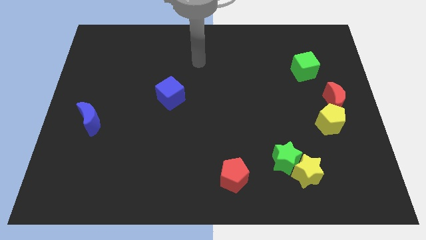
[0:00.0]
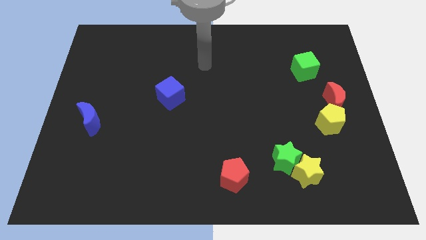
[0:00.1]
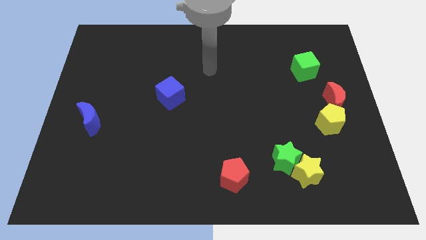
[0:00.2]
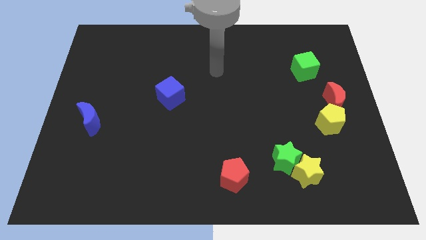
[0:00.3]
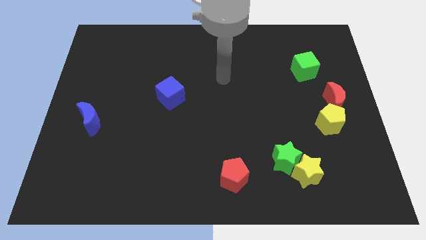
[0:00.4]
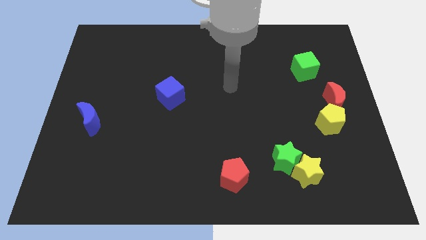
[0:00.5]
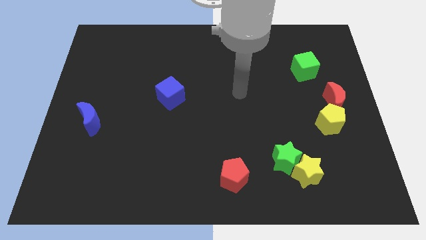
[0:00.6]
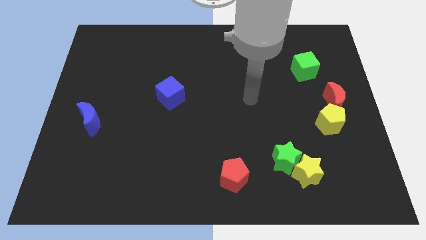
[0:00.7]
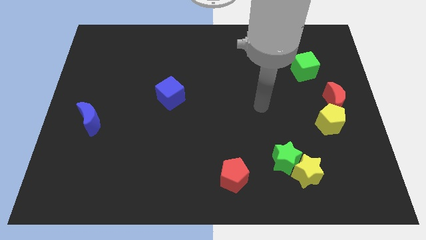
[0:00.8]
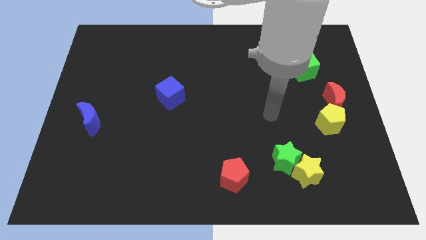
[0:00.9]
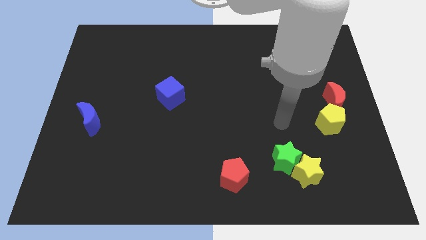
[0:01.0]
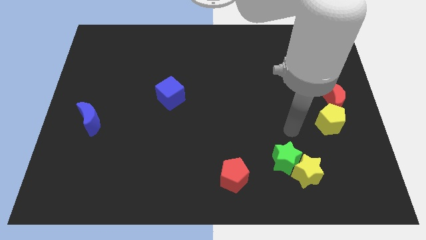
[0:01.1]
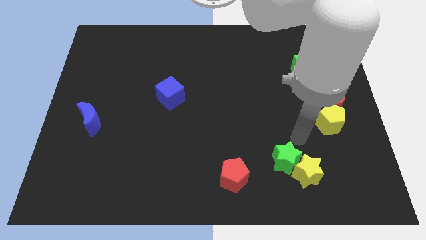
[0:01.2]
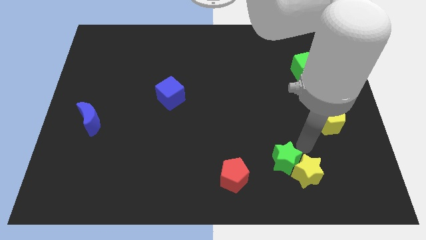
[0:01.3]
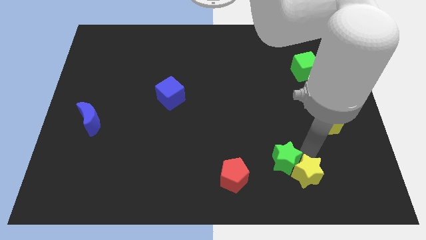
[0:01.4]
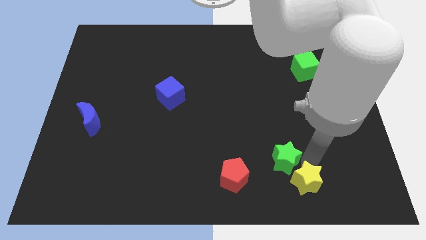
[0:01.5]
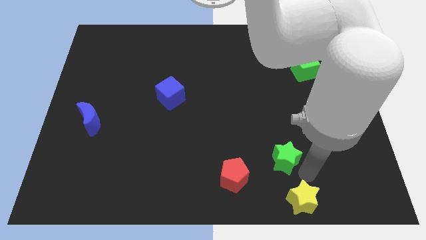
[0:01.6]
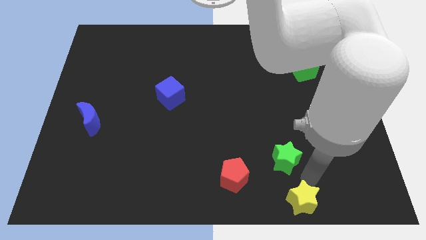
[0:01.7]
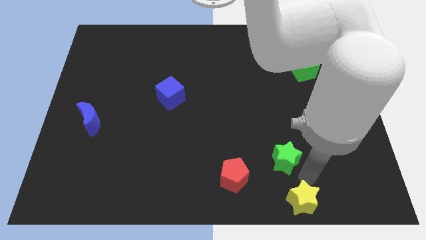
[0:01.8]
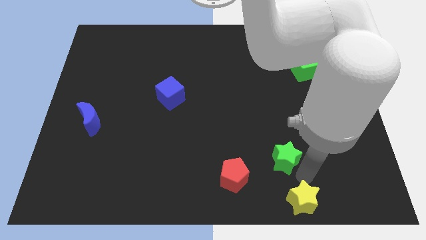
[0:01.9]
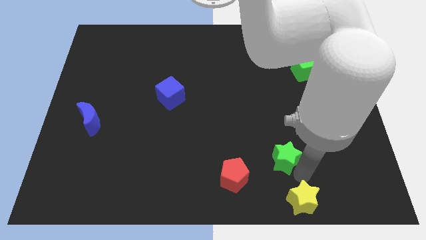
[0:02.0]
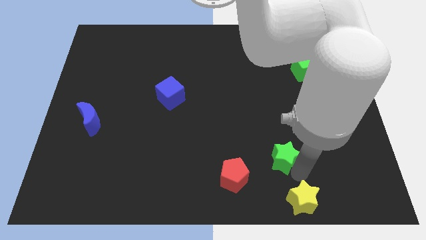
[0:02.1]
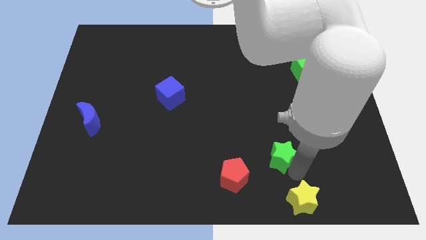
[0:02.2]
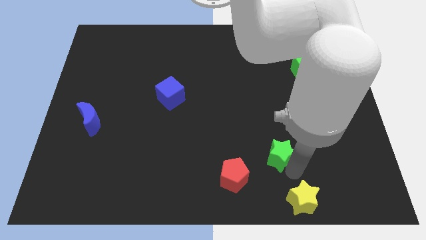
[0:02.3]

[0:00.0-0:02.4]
separate the green star from the yellow star

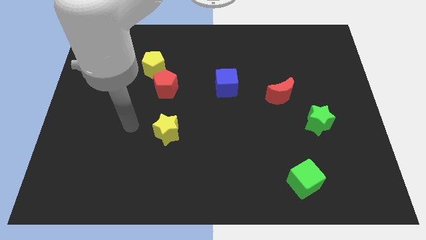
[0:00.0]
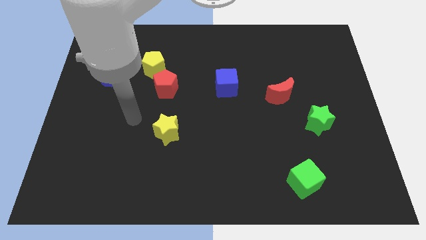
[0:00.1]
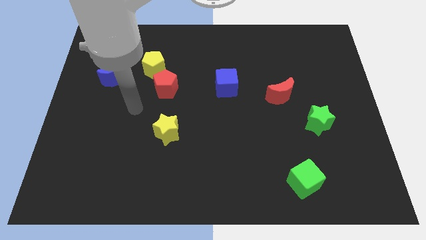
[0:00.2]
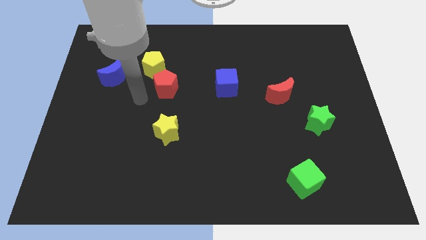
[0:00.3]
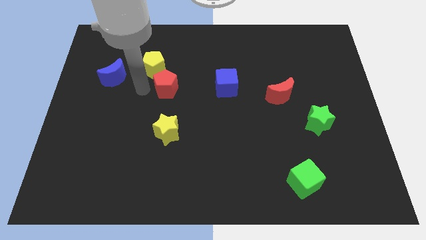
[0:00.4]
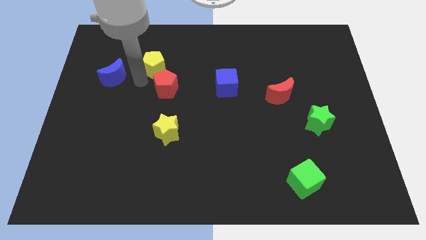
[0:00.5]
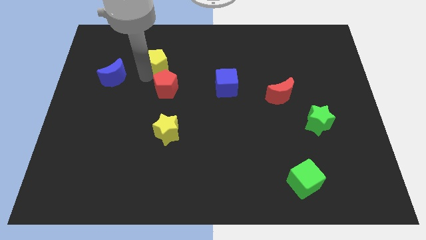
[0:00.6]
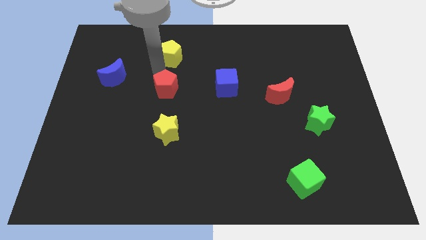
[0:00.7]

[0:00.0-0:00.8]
move the red pentagon away from the yellow pentagon

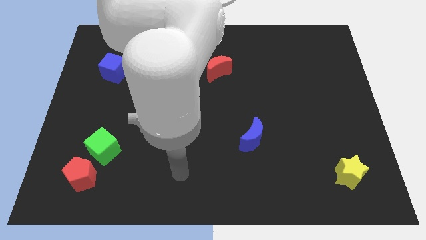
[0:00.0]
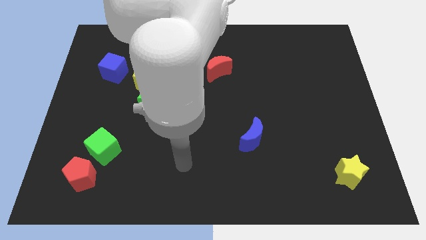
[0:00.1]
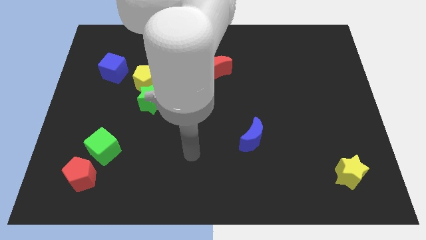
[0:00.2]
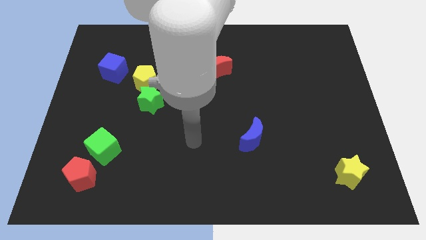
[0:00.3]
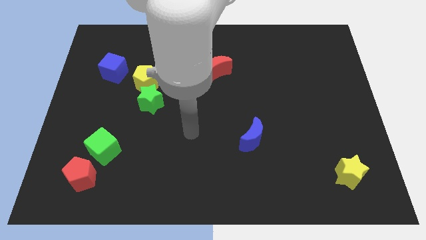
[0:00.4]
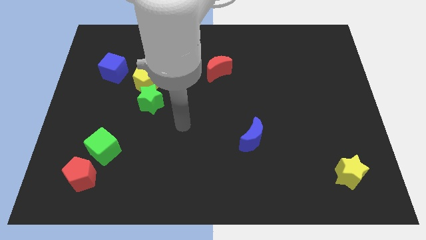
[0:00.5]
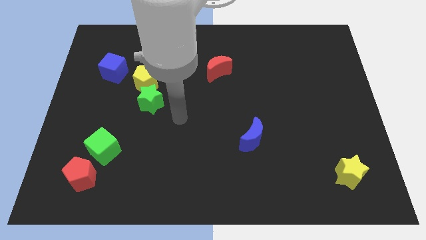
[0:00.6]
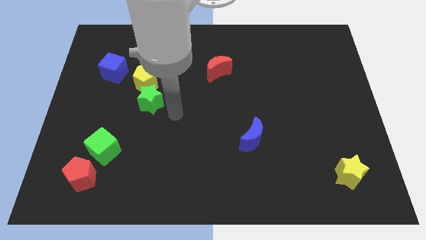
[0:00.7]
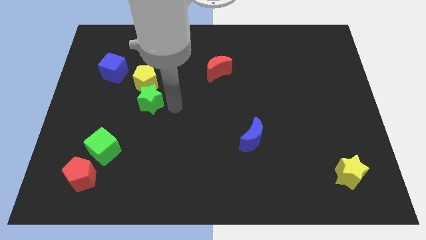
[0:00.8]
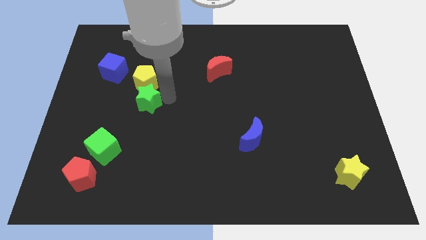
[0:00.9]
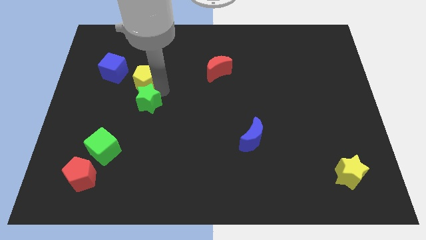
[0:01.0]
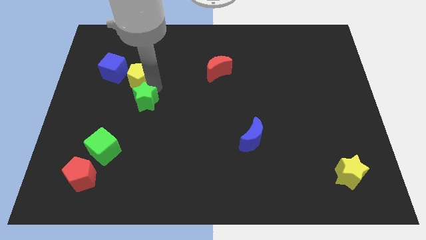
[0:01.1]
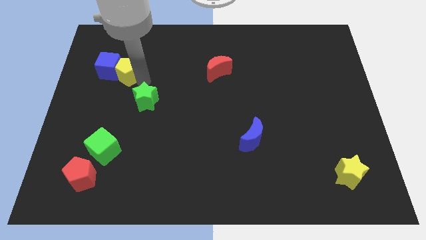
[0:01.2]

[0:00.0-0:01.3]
separate the green star from the yellow pentagon

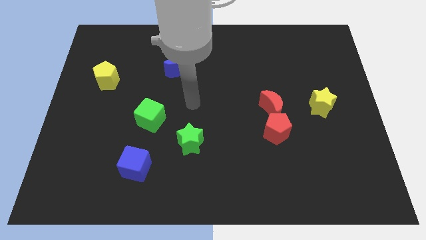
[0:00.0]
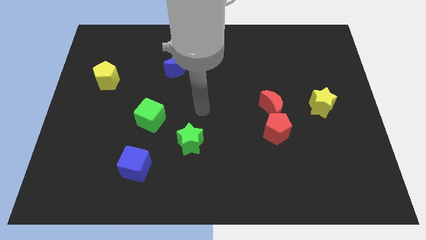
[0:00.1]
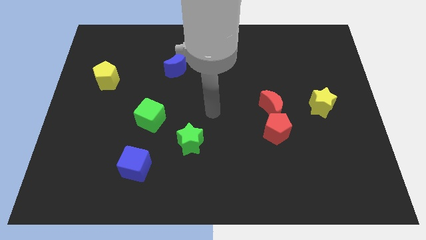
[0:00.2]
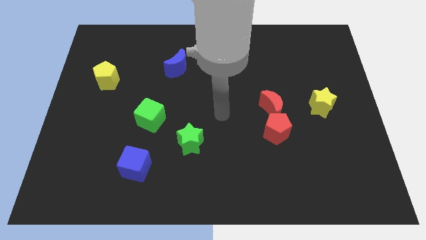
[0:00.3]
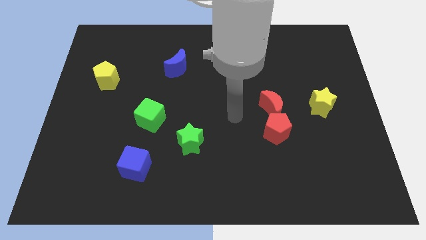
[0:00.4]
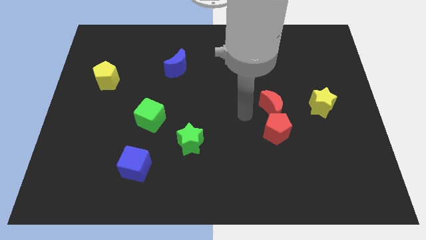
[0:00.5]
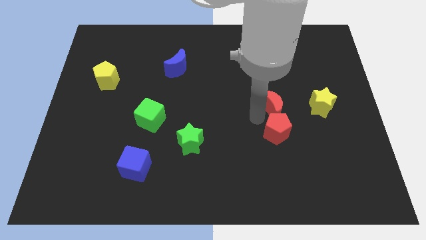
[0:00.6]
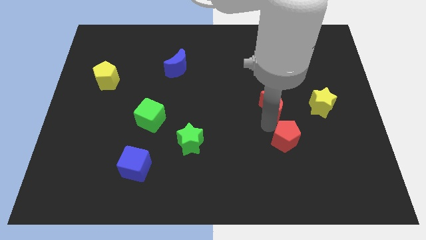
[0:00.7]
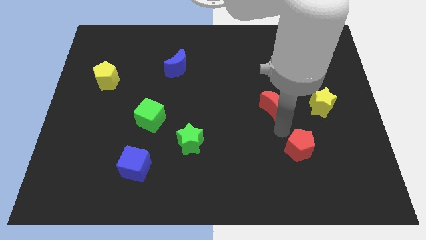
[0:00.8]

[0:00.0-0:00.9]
move the red moon away from the red pentagon

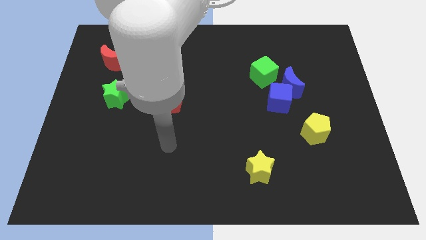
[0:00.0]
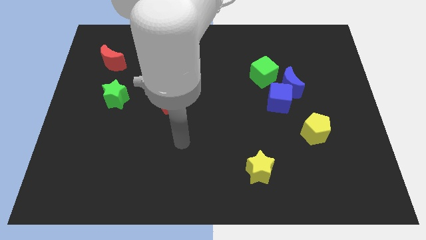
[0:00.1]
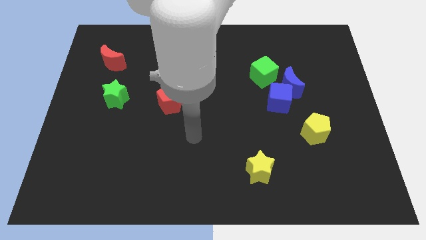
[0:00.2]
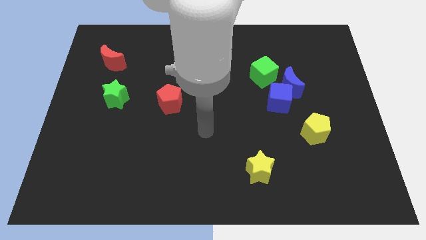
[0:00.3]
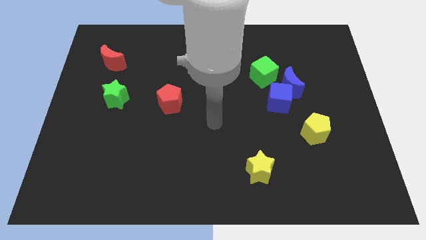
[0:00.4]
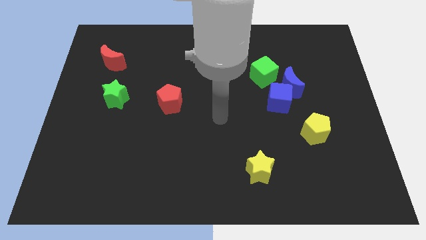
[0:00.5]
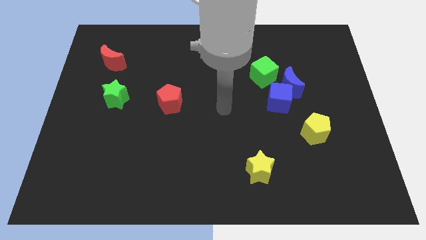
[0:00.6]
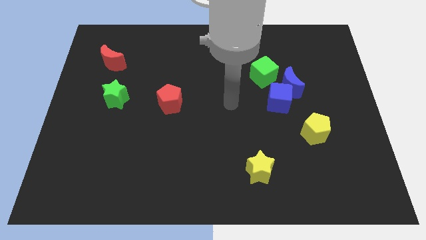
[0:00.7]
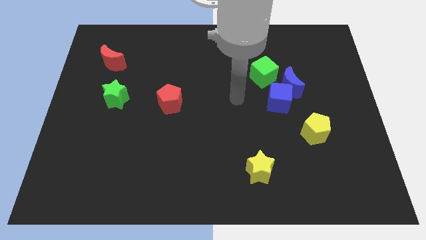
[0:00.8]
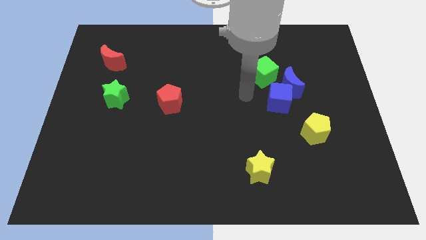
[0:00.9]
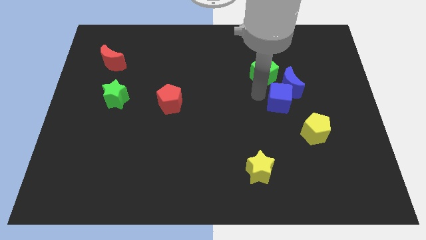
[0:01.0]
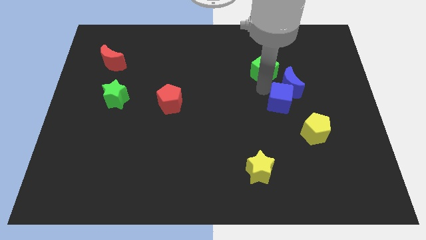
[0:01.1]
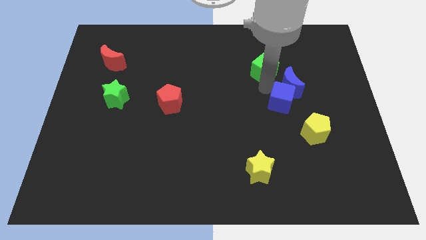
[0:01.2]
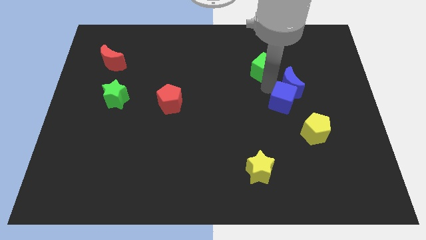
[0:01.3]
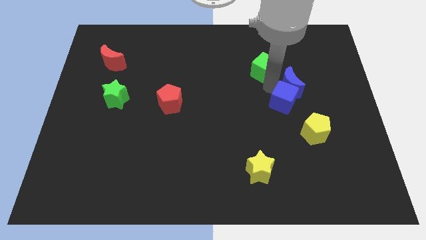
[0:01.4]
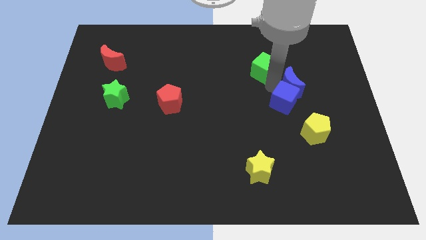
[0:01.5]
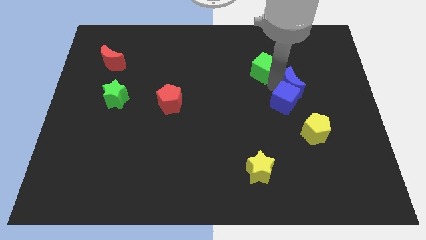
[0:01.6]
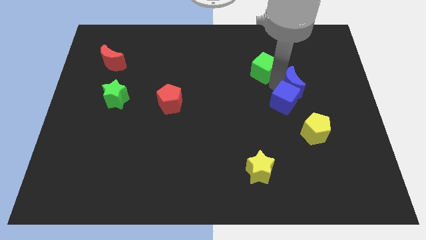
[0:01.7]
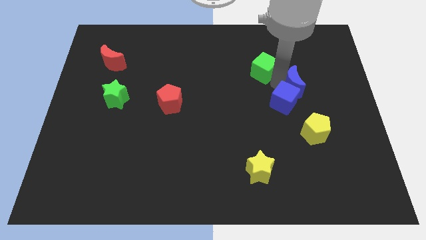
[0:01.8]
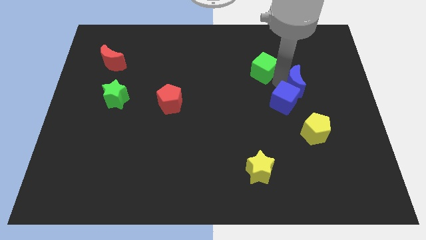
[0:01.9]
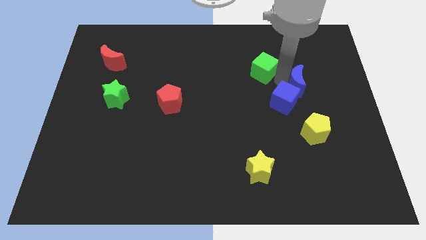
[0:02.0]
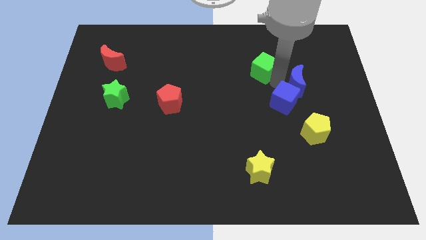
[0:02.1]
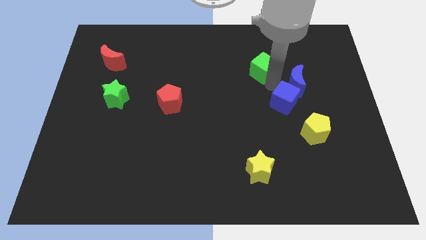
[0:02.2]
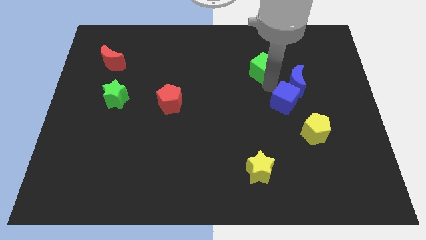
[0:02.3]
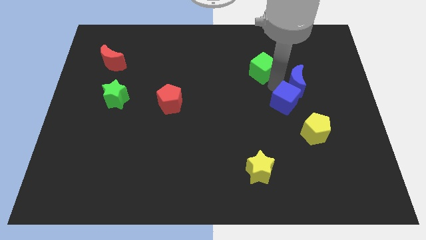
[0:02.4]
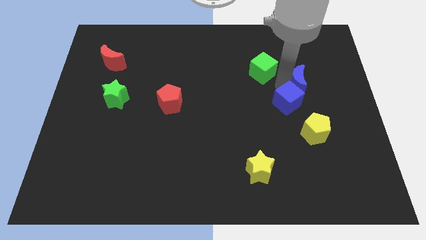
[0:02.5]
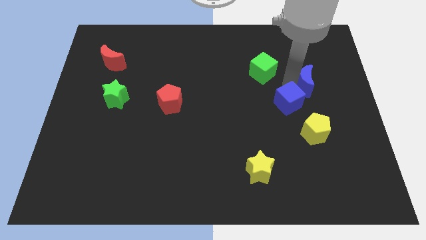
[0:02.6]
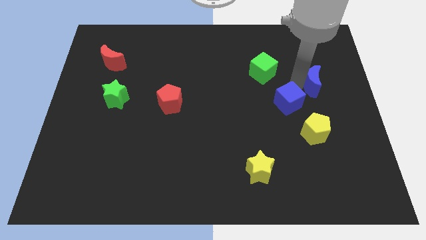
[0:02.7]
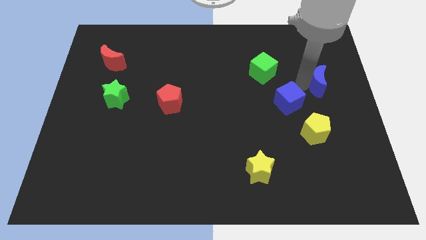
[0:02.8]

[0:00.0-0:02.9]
separate the blue moon from the blue cube and green cube

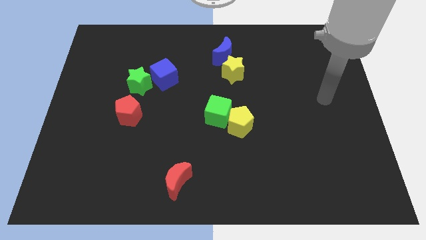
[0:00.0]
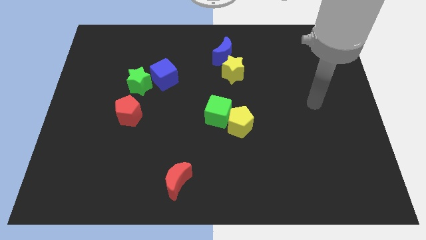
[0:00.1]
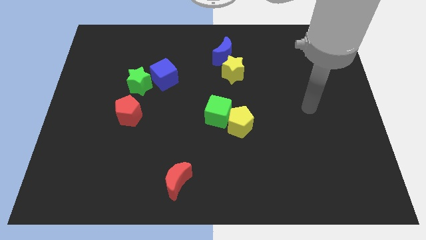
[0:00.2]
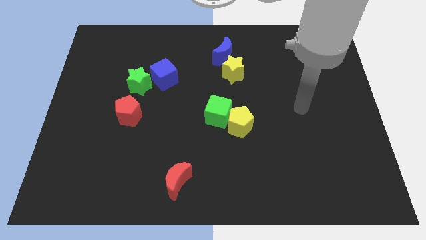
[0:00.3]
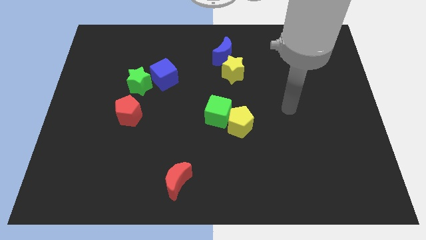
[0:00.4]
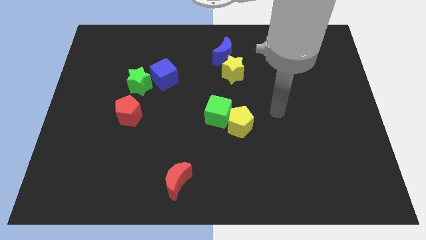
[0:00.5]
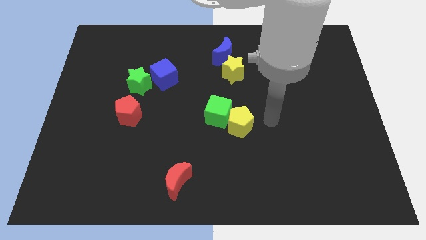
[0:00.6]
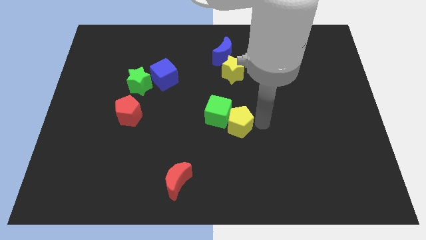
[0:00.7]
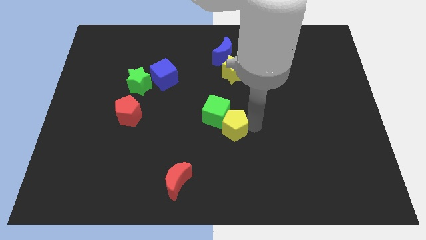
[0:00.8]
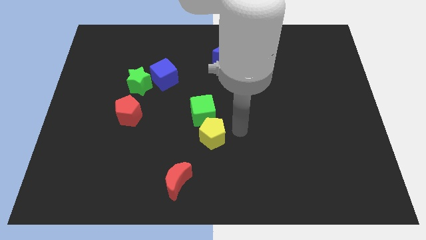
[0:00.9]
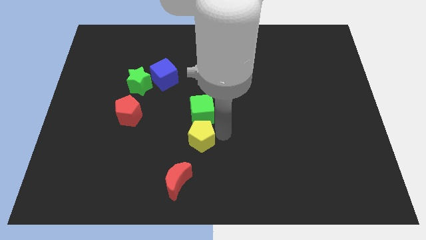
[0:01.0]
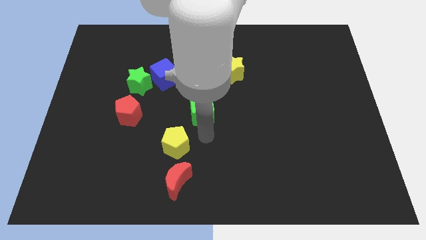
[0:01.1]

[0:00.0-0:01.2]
pull the green cube apart from the yellow pentagon
